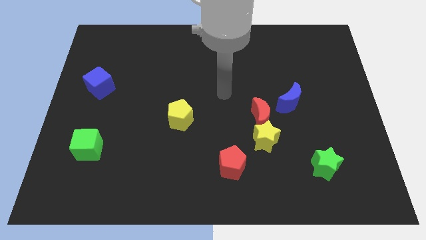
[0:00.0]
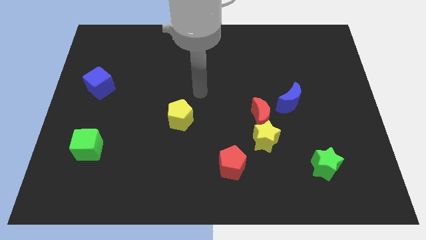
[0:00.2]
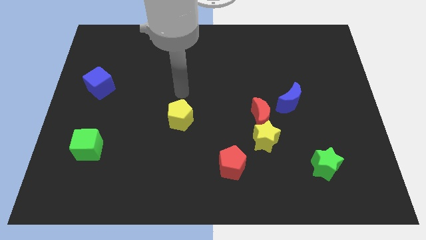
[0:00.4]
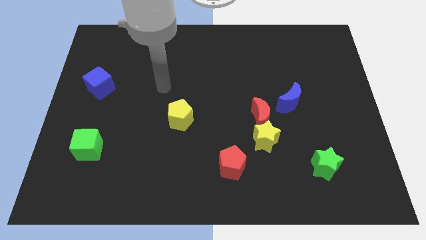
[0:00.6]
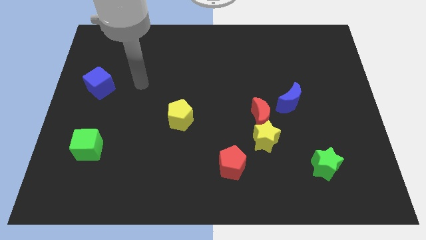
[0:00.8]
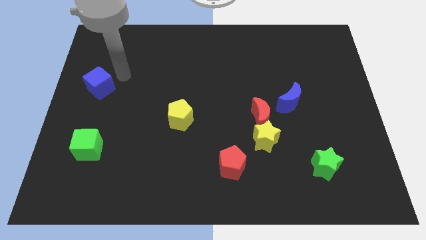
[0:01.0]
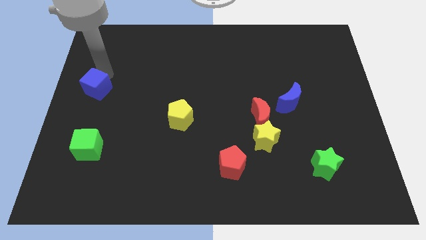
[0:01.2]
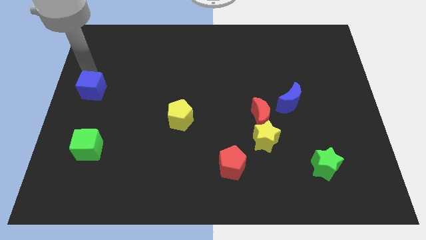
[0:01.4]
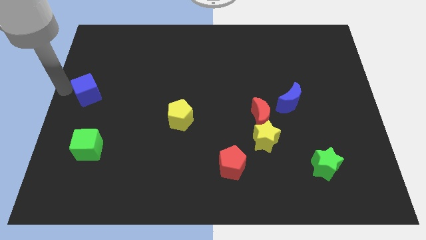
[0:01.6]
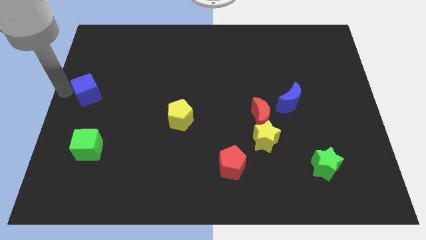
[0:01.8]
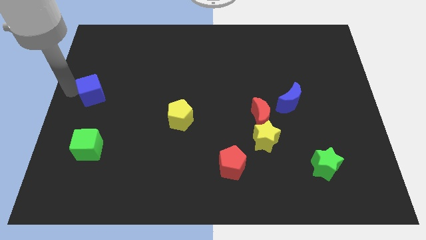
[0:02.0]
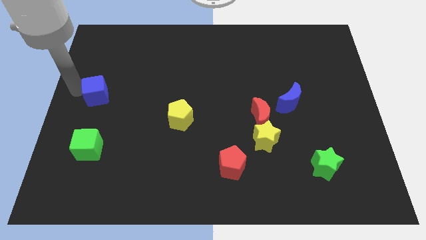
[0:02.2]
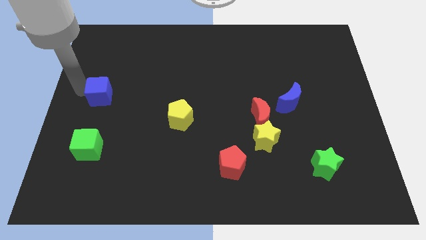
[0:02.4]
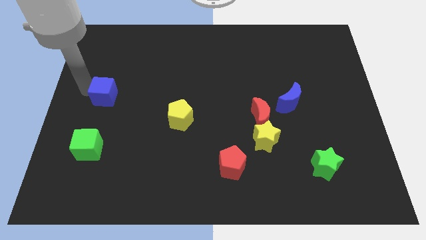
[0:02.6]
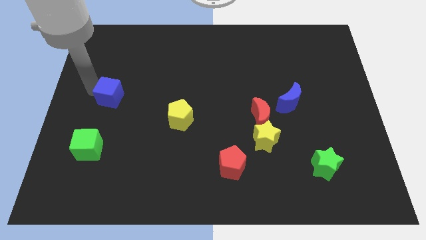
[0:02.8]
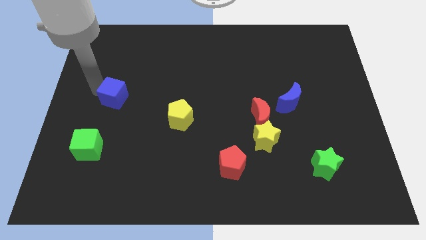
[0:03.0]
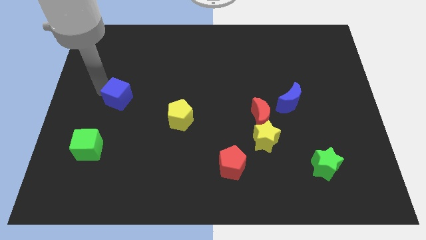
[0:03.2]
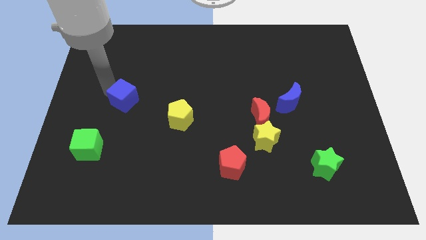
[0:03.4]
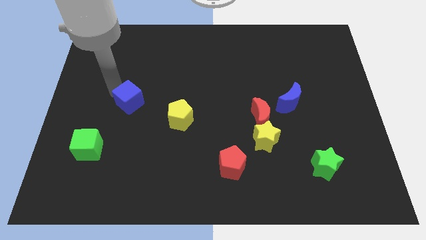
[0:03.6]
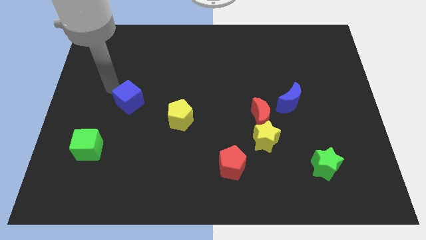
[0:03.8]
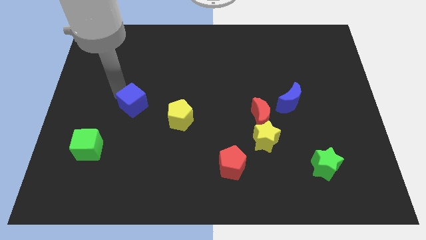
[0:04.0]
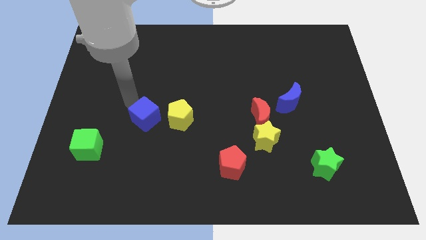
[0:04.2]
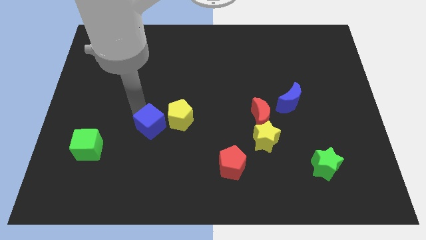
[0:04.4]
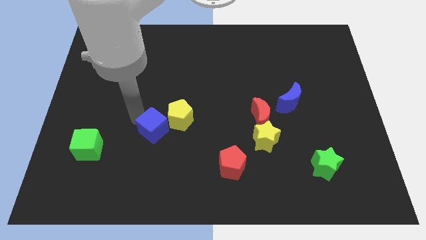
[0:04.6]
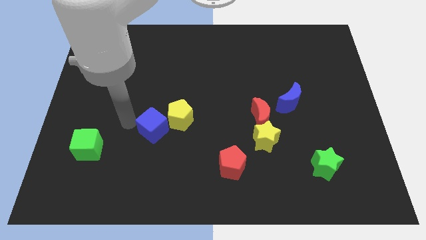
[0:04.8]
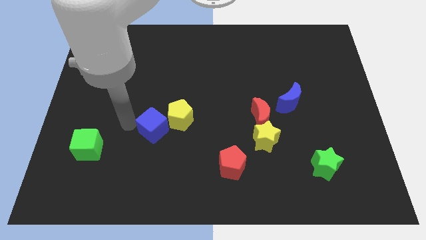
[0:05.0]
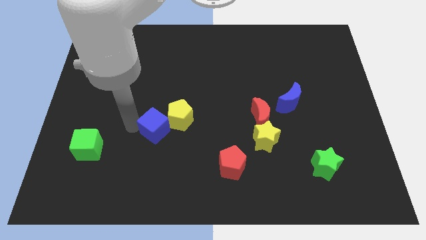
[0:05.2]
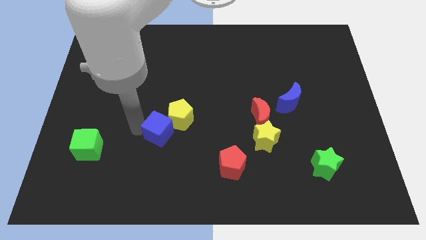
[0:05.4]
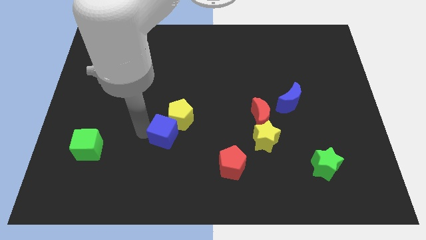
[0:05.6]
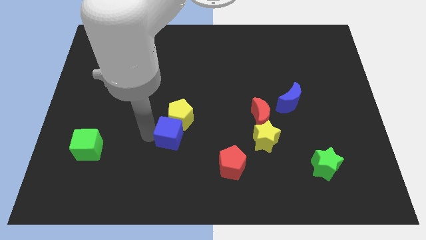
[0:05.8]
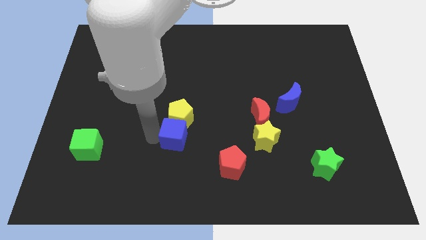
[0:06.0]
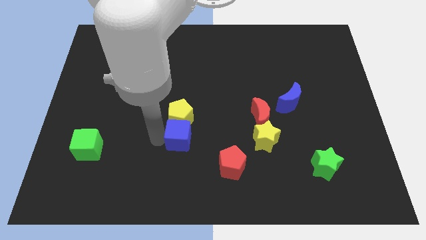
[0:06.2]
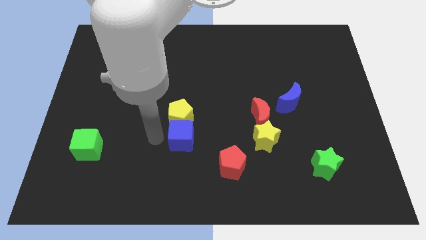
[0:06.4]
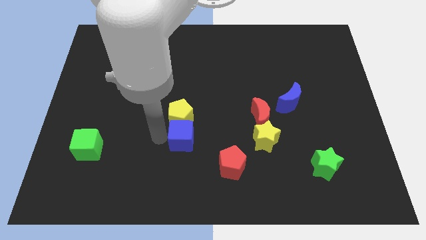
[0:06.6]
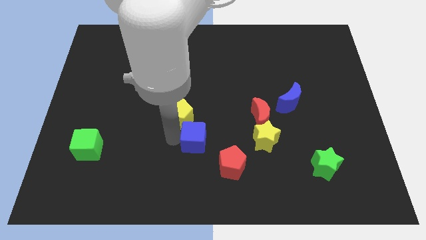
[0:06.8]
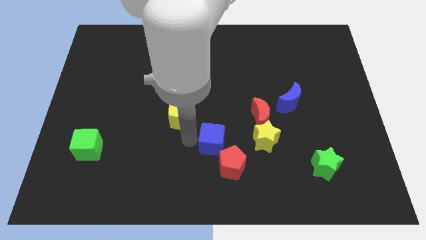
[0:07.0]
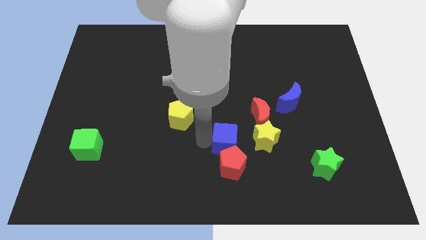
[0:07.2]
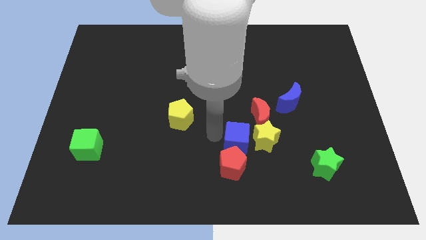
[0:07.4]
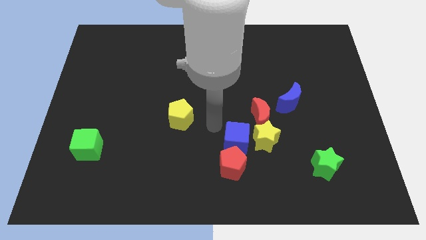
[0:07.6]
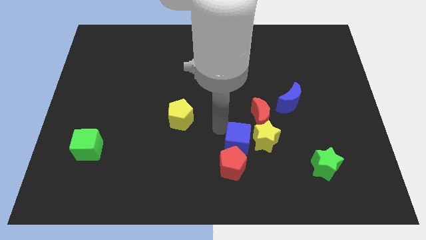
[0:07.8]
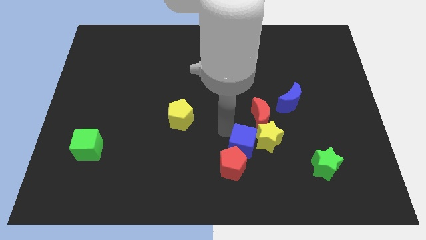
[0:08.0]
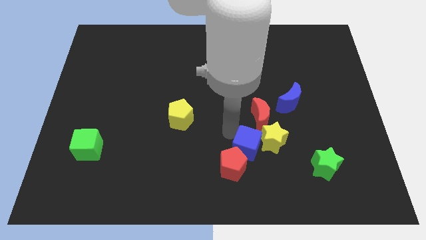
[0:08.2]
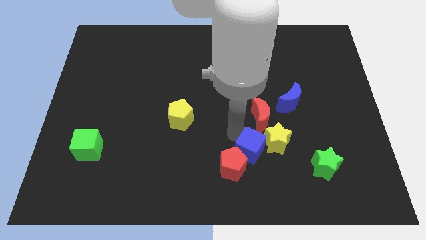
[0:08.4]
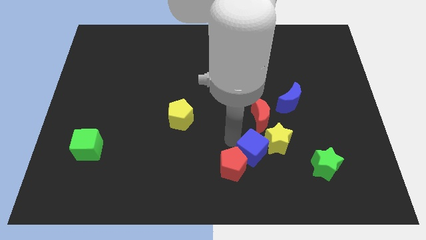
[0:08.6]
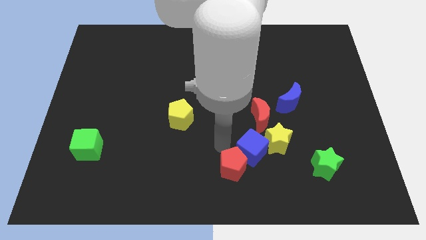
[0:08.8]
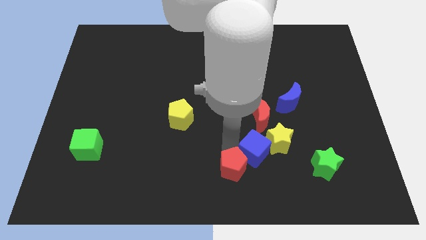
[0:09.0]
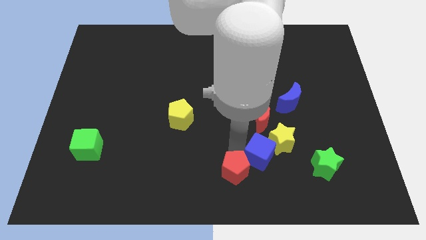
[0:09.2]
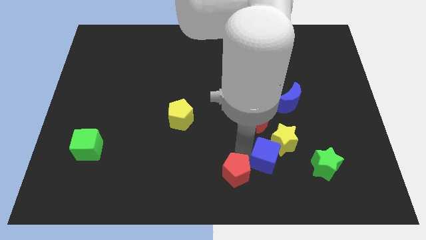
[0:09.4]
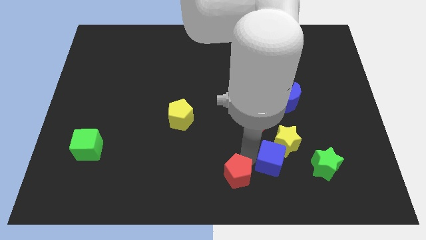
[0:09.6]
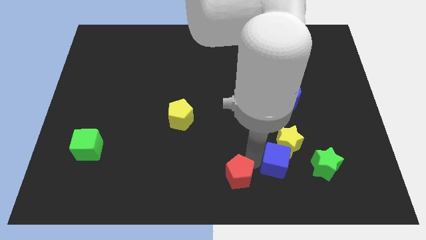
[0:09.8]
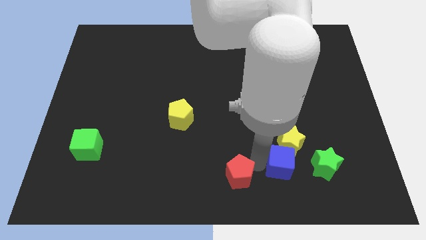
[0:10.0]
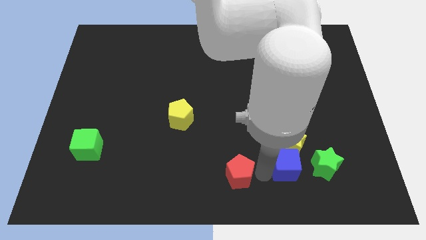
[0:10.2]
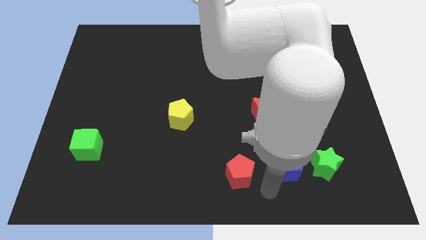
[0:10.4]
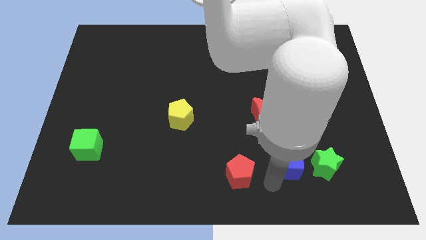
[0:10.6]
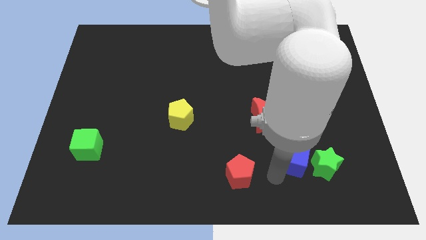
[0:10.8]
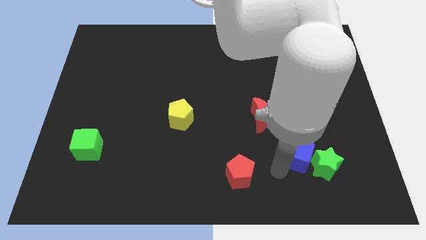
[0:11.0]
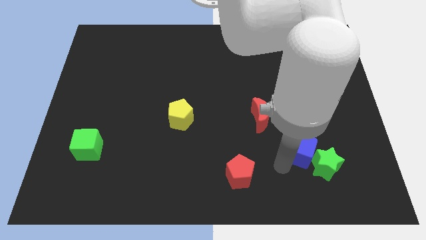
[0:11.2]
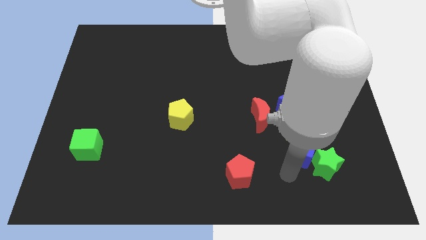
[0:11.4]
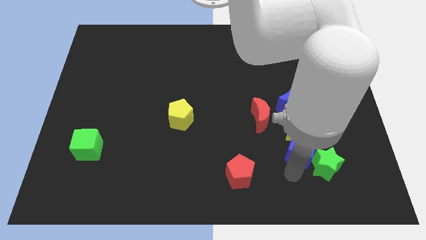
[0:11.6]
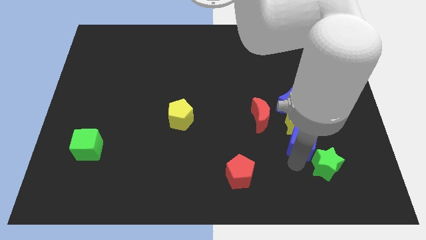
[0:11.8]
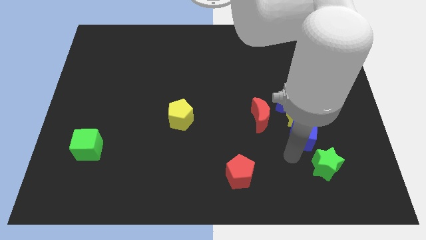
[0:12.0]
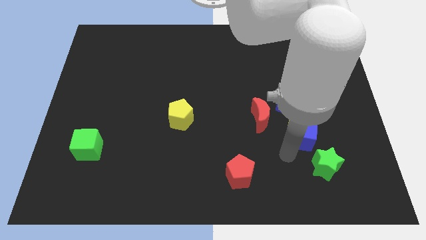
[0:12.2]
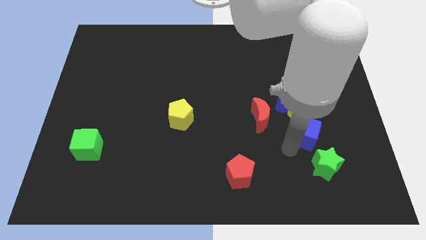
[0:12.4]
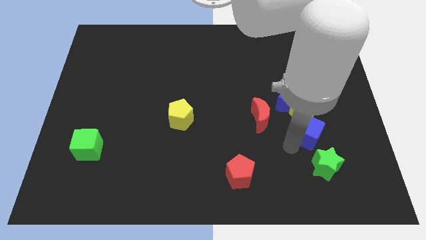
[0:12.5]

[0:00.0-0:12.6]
move the blue cube to the bottom right of the blue moon

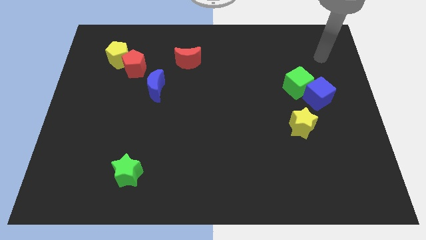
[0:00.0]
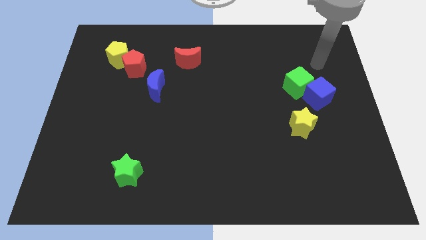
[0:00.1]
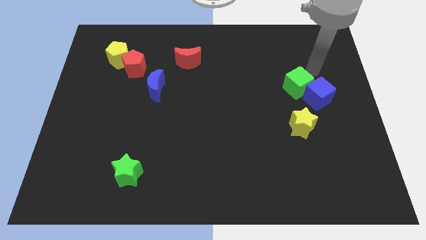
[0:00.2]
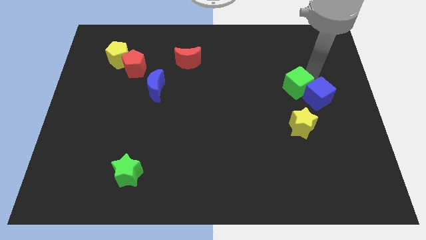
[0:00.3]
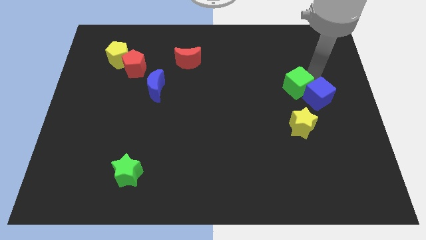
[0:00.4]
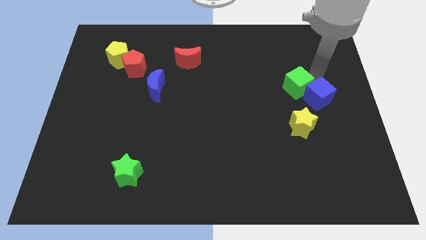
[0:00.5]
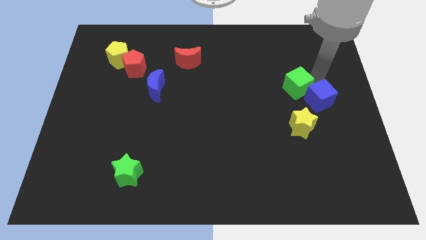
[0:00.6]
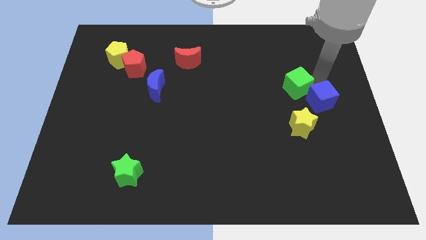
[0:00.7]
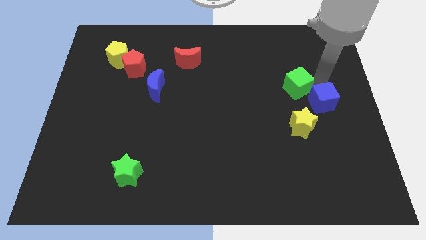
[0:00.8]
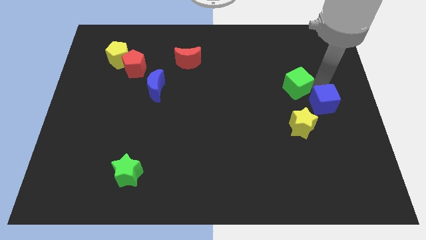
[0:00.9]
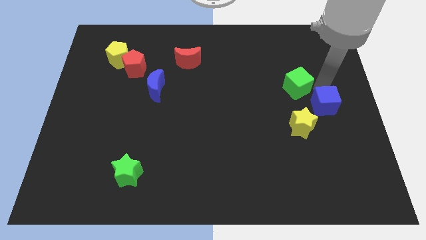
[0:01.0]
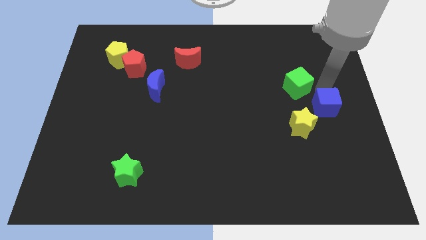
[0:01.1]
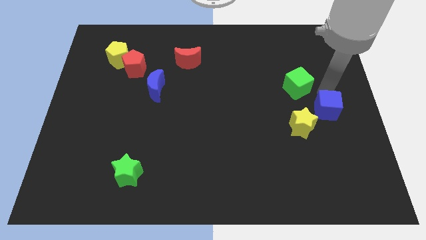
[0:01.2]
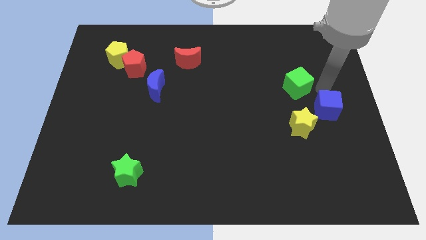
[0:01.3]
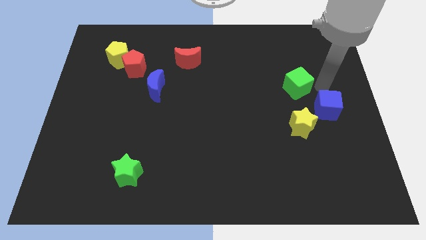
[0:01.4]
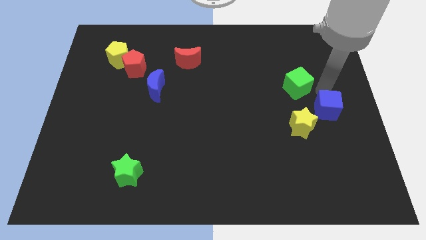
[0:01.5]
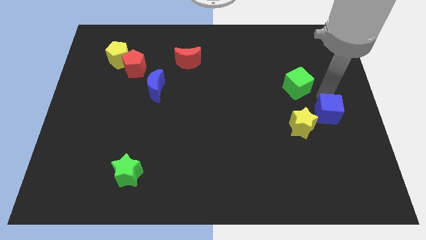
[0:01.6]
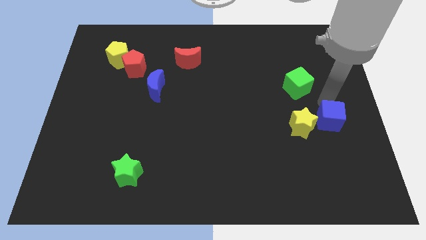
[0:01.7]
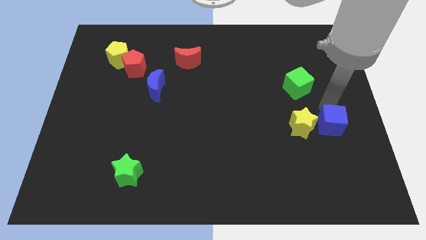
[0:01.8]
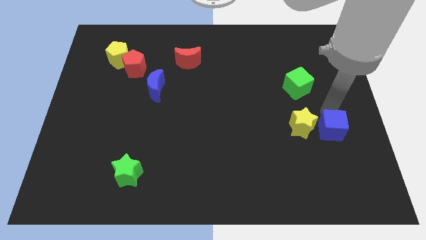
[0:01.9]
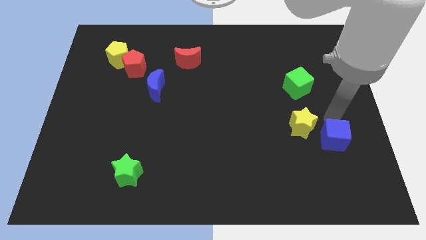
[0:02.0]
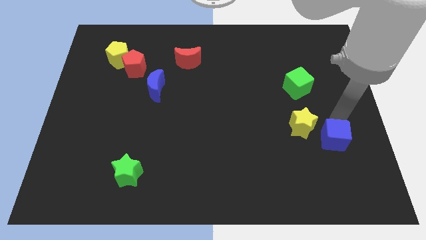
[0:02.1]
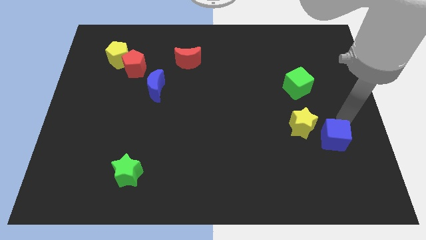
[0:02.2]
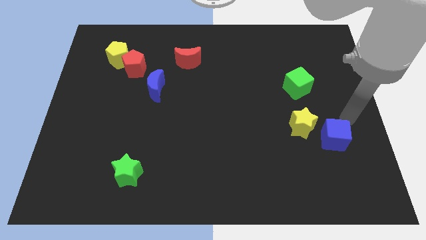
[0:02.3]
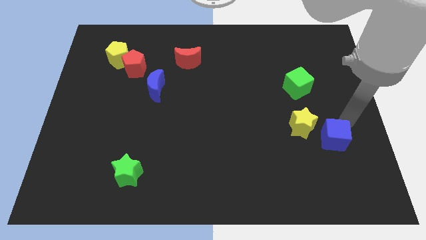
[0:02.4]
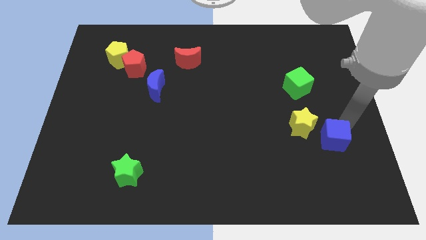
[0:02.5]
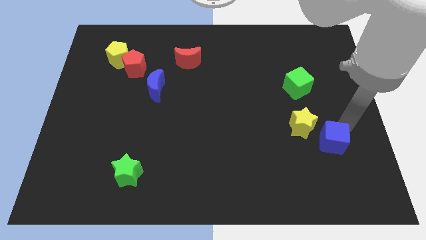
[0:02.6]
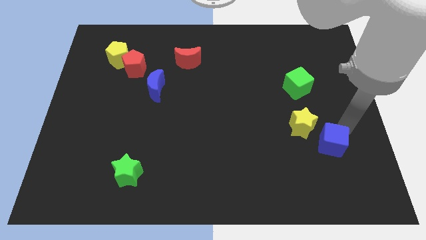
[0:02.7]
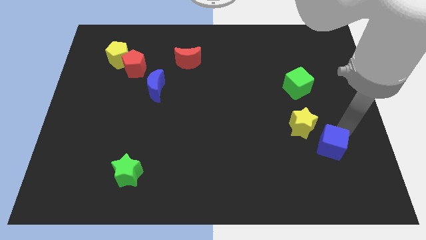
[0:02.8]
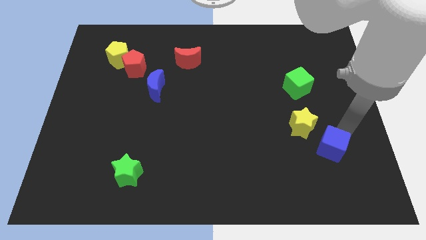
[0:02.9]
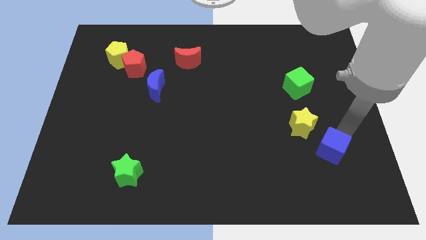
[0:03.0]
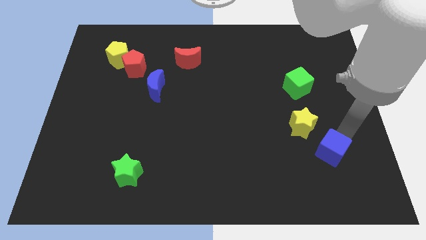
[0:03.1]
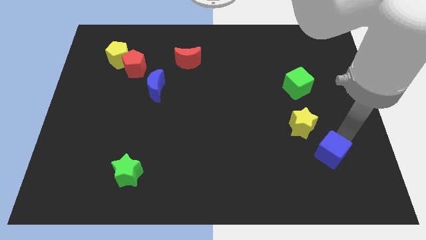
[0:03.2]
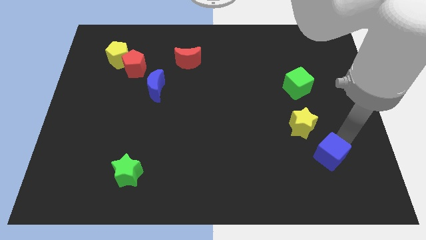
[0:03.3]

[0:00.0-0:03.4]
move the blue cube to the bottom of the yellow star
